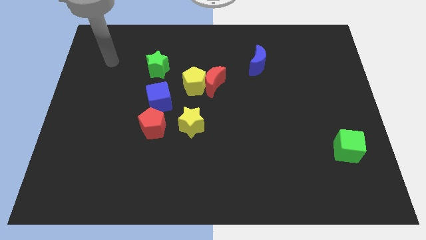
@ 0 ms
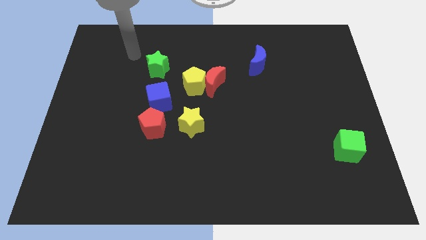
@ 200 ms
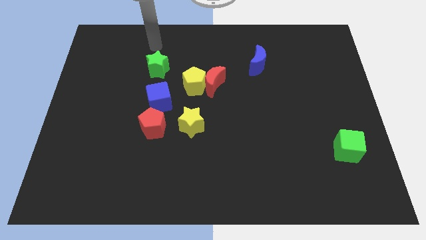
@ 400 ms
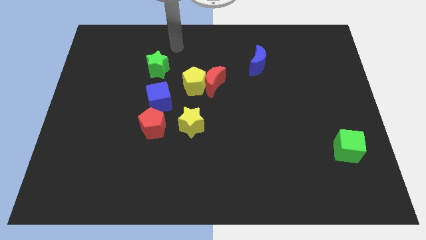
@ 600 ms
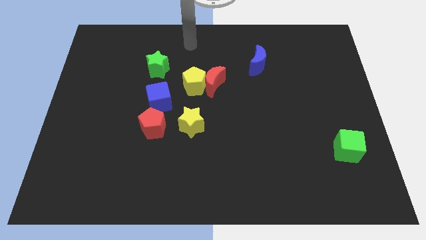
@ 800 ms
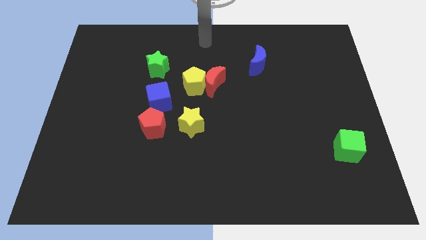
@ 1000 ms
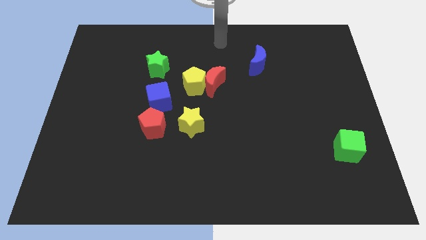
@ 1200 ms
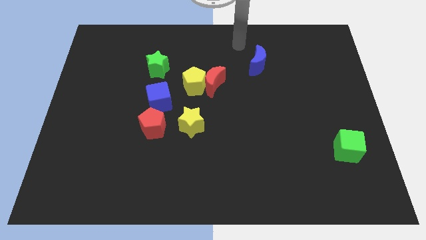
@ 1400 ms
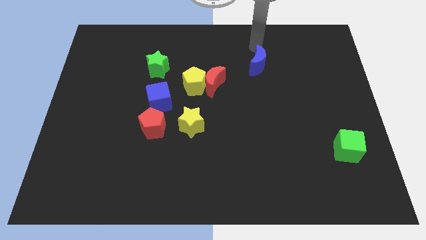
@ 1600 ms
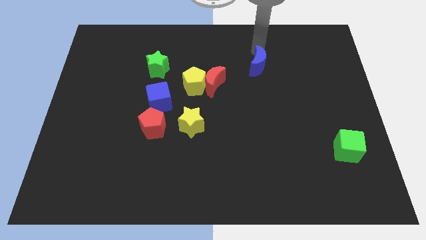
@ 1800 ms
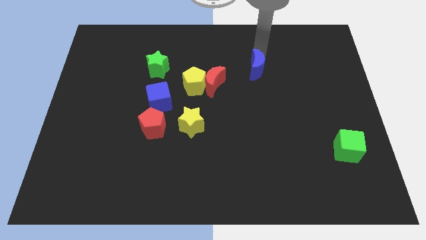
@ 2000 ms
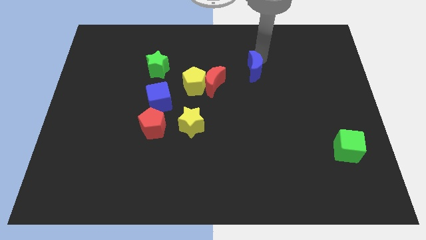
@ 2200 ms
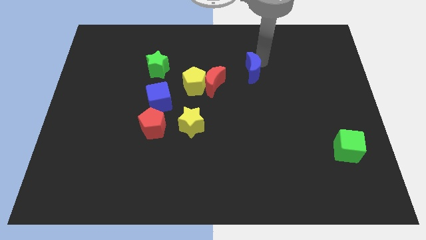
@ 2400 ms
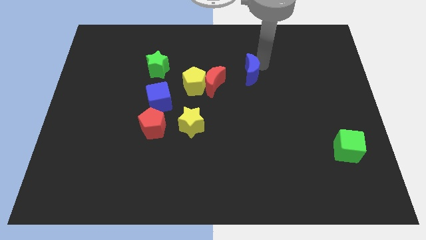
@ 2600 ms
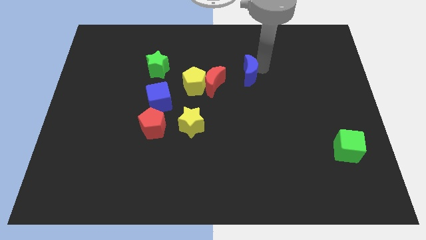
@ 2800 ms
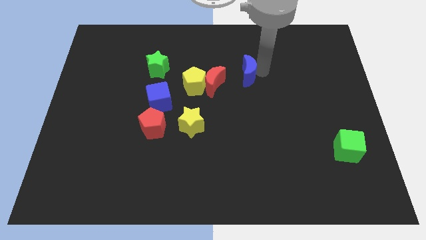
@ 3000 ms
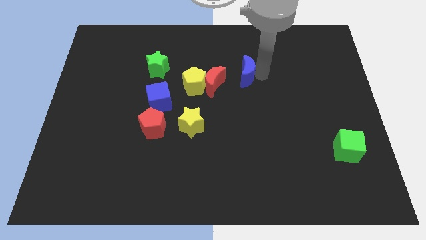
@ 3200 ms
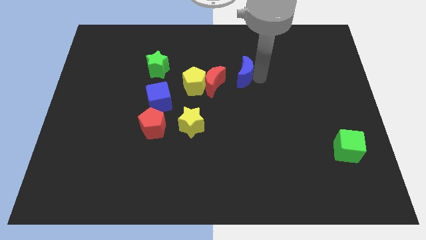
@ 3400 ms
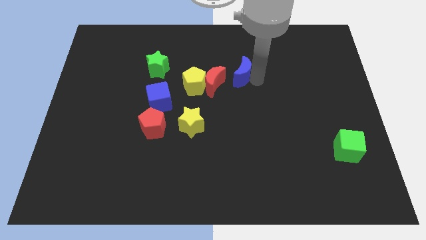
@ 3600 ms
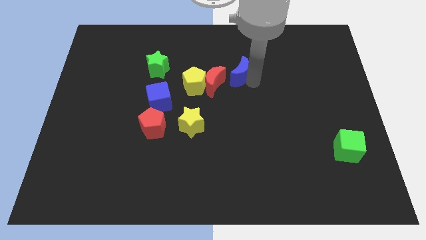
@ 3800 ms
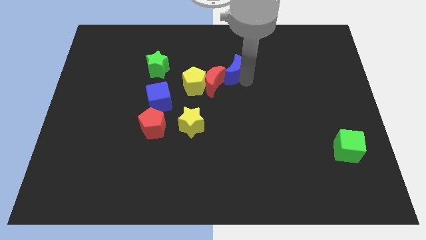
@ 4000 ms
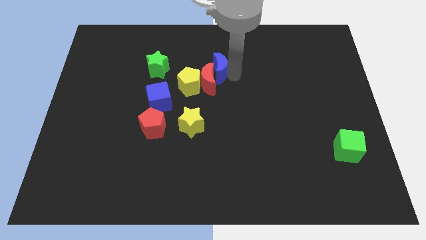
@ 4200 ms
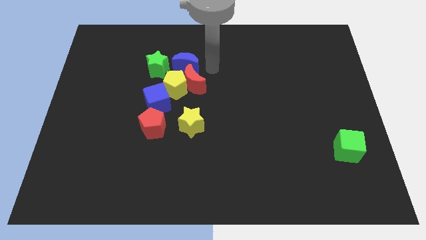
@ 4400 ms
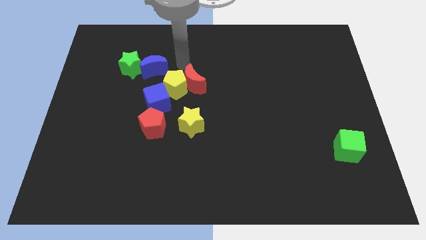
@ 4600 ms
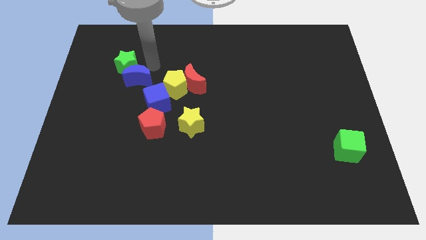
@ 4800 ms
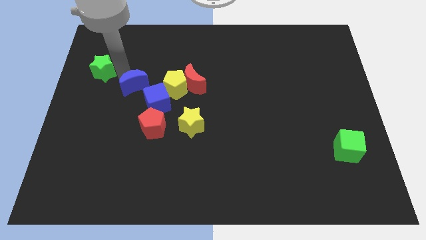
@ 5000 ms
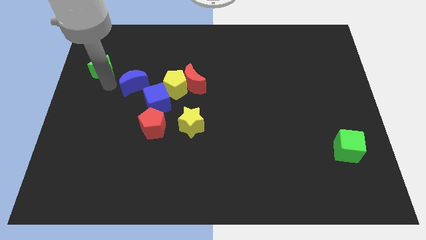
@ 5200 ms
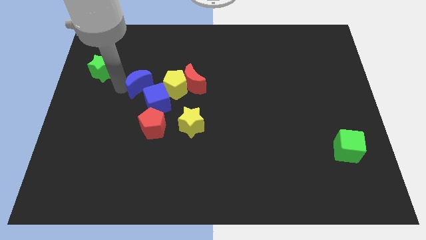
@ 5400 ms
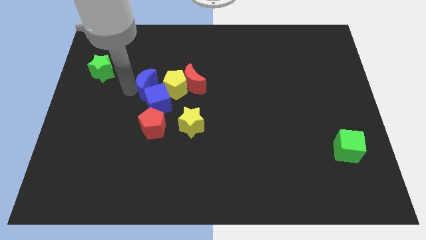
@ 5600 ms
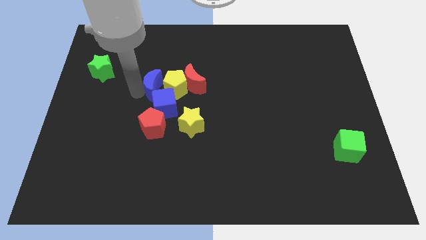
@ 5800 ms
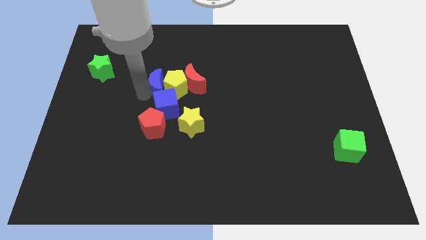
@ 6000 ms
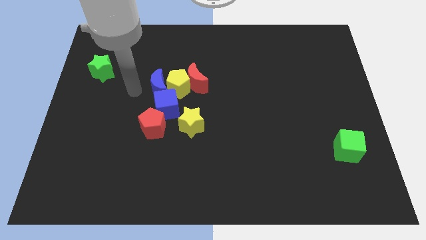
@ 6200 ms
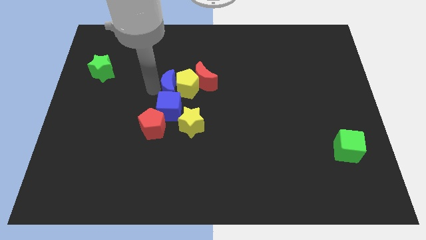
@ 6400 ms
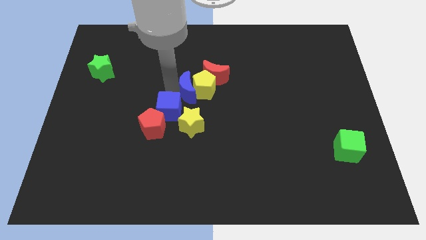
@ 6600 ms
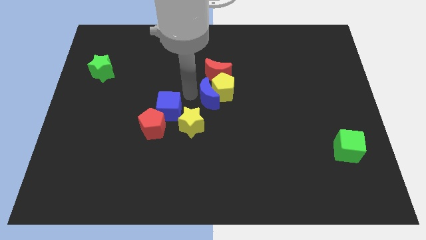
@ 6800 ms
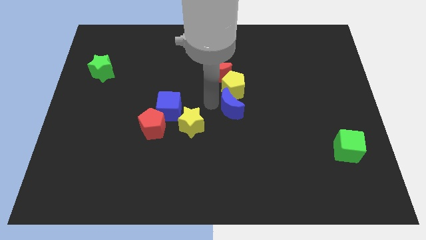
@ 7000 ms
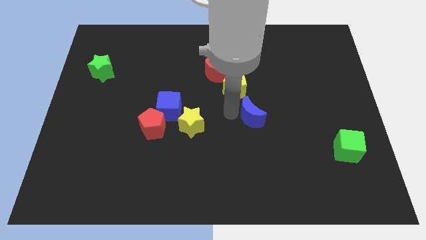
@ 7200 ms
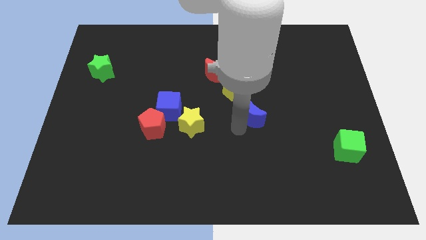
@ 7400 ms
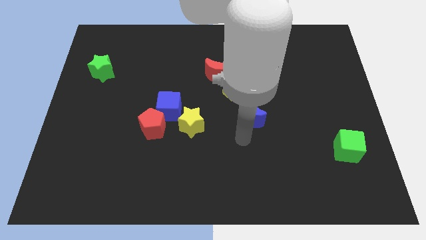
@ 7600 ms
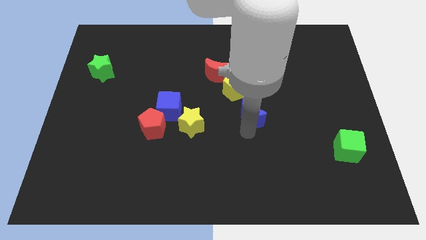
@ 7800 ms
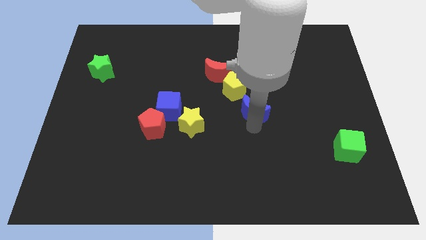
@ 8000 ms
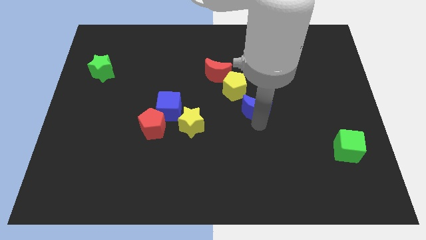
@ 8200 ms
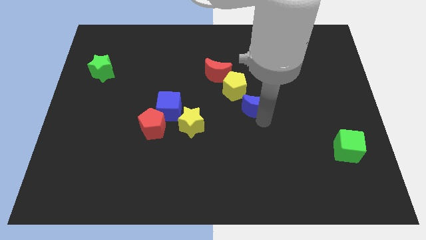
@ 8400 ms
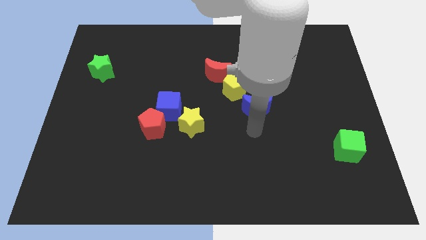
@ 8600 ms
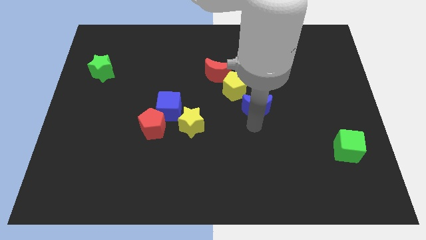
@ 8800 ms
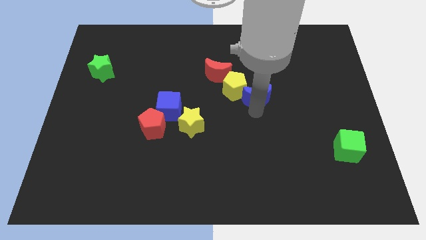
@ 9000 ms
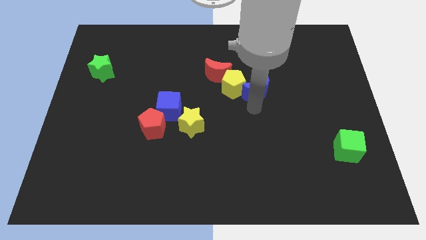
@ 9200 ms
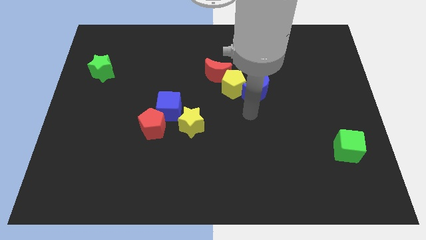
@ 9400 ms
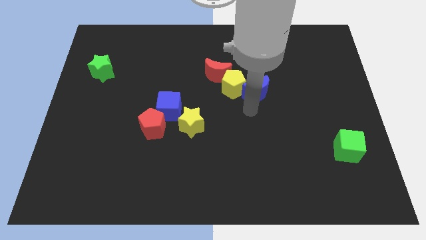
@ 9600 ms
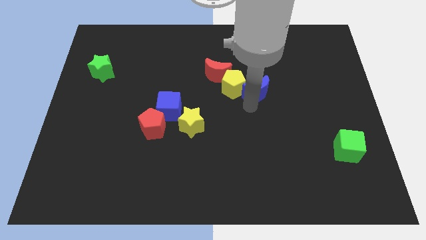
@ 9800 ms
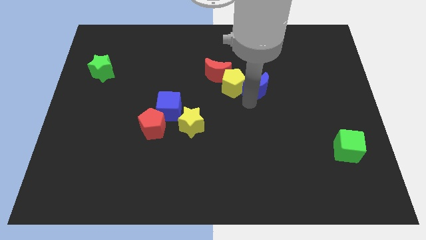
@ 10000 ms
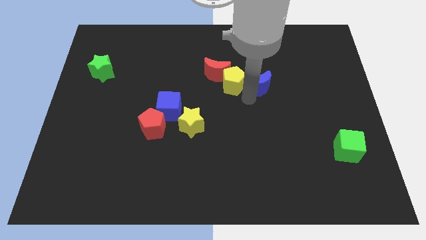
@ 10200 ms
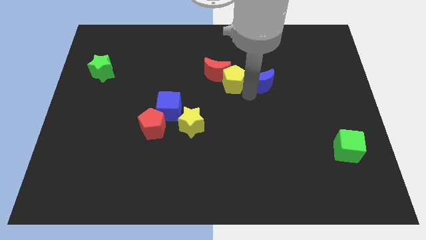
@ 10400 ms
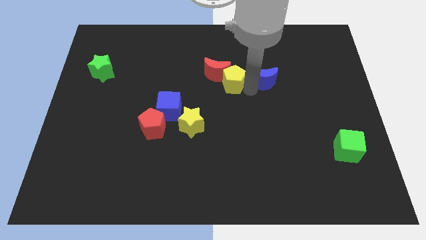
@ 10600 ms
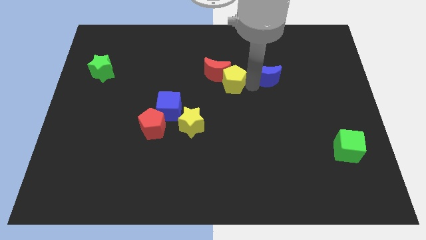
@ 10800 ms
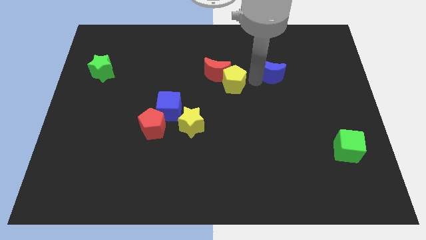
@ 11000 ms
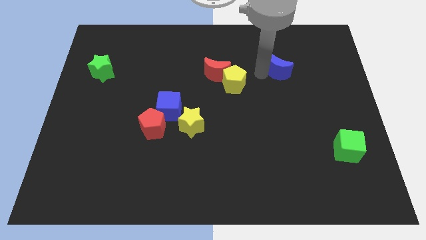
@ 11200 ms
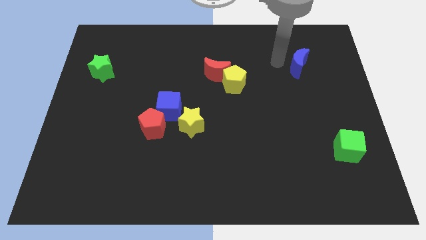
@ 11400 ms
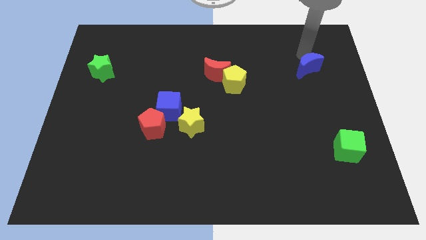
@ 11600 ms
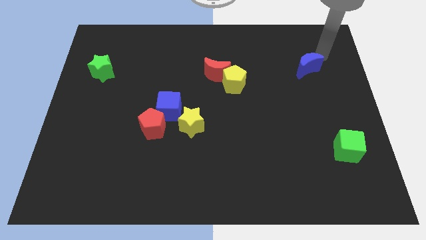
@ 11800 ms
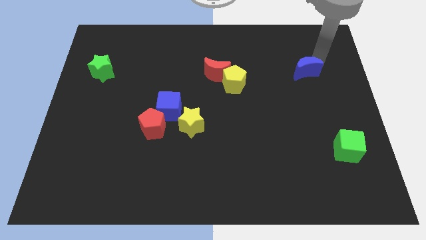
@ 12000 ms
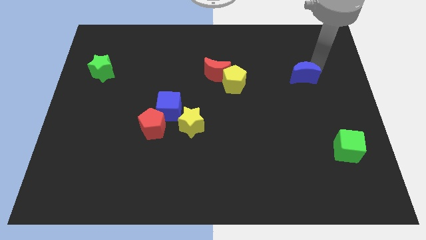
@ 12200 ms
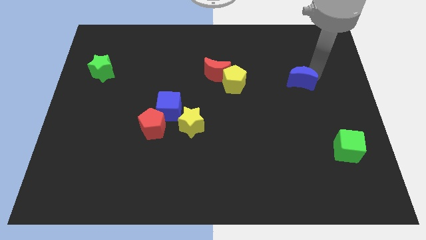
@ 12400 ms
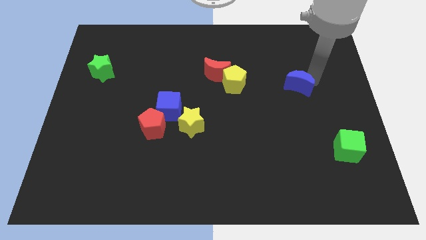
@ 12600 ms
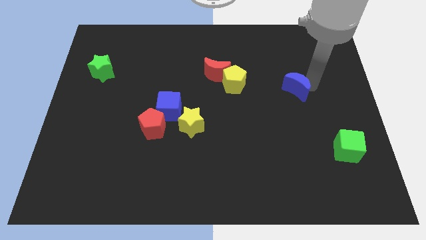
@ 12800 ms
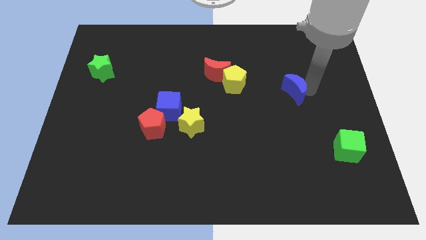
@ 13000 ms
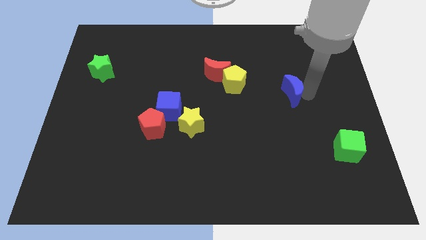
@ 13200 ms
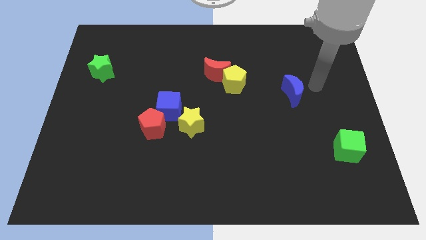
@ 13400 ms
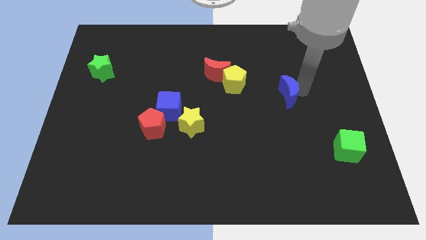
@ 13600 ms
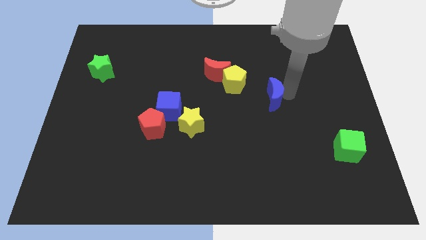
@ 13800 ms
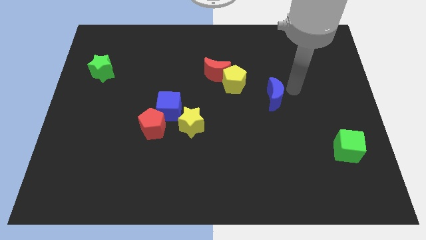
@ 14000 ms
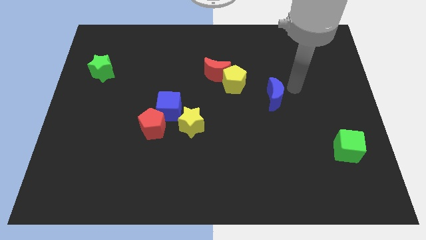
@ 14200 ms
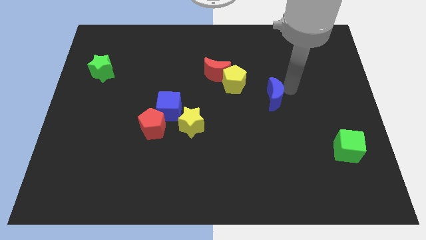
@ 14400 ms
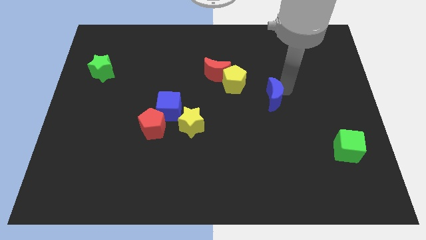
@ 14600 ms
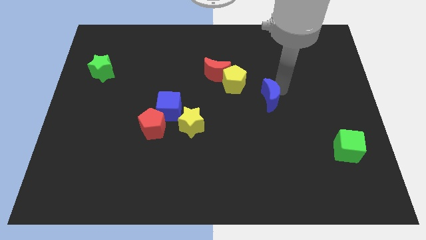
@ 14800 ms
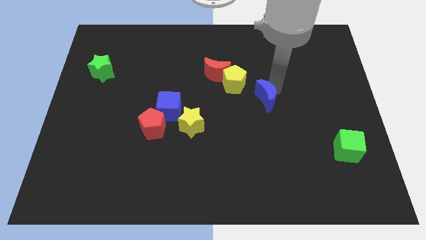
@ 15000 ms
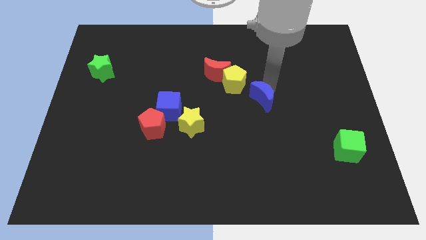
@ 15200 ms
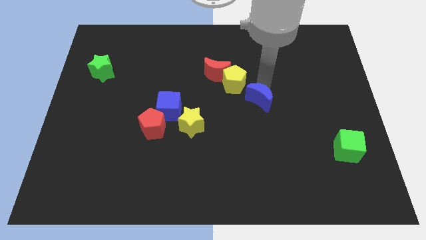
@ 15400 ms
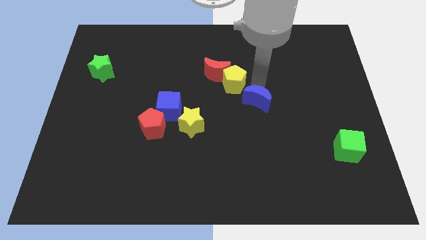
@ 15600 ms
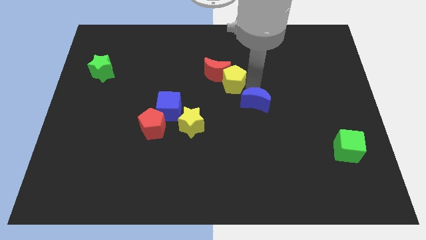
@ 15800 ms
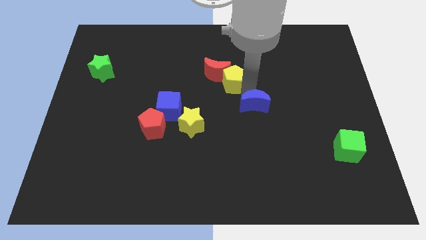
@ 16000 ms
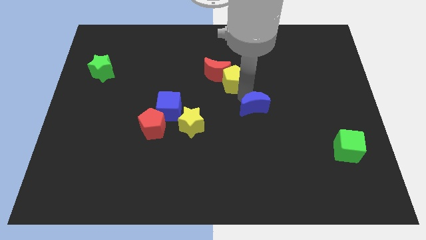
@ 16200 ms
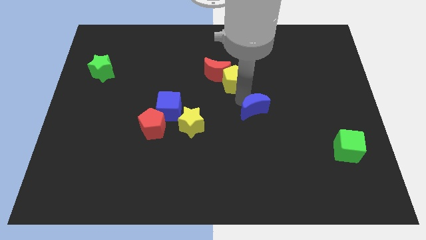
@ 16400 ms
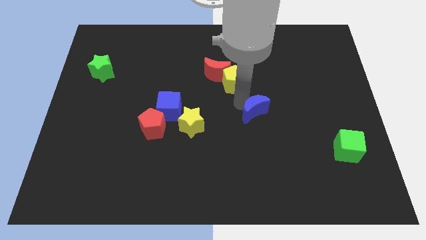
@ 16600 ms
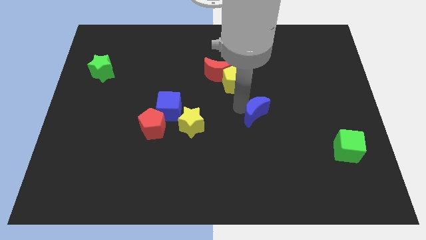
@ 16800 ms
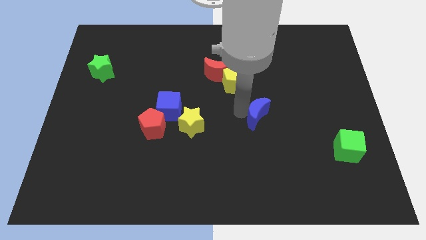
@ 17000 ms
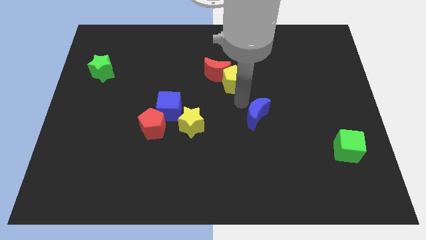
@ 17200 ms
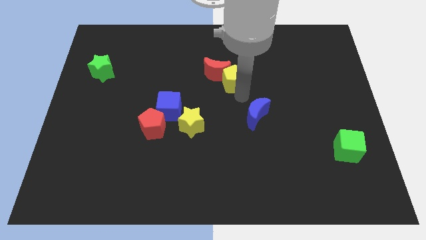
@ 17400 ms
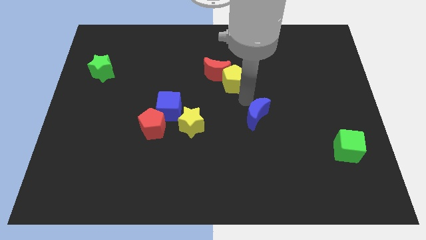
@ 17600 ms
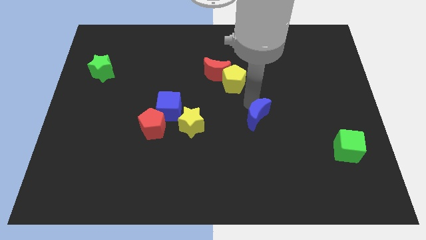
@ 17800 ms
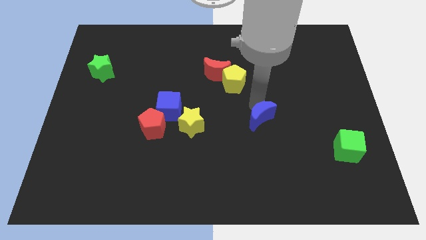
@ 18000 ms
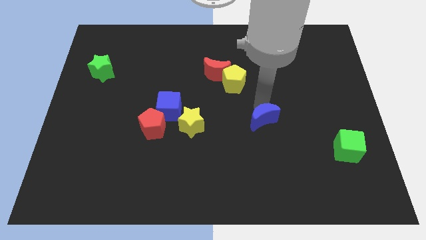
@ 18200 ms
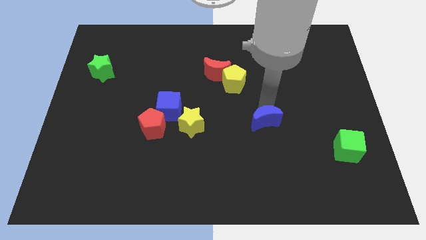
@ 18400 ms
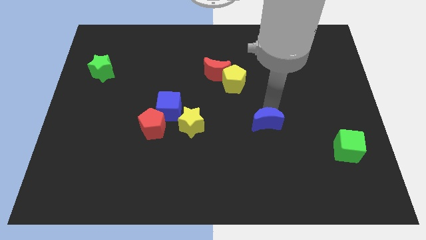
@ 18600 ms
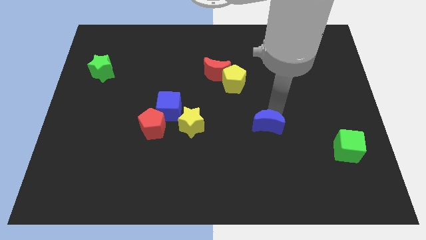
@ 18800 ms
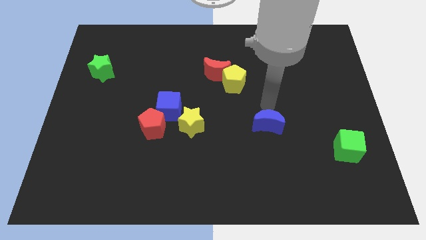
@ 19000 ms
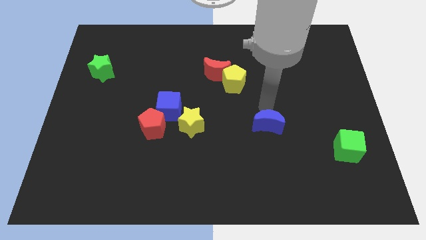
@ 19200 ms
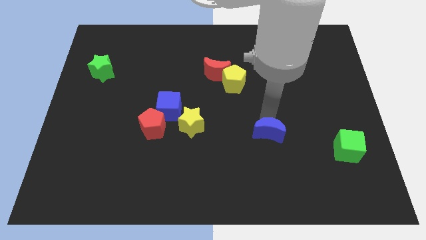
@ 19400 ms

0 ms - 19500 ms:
push the blue moon down
